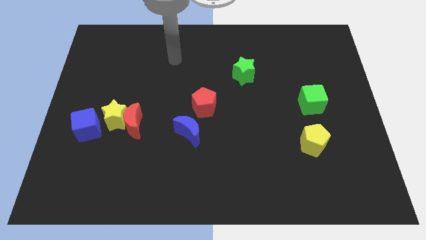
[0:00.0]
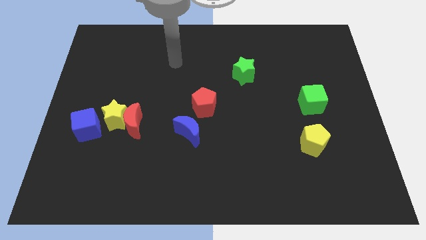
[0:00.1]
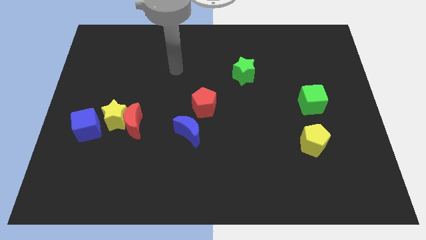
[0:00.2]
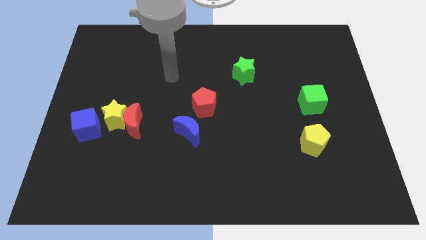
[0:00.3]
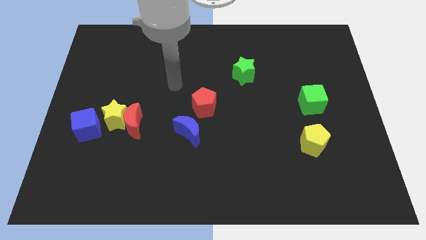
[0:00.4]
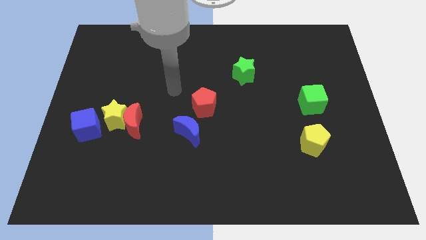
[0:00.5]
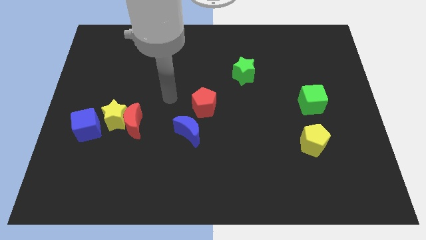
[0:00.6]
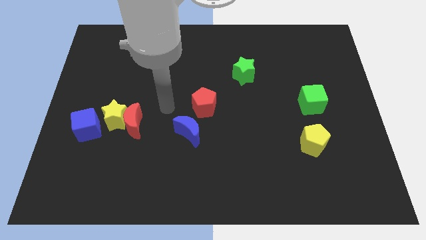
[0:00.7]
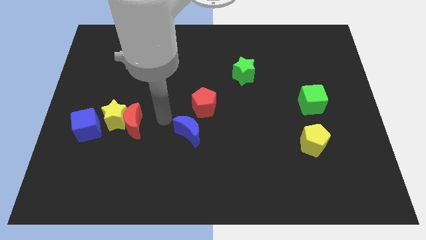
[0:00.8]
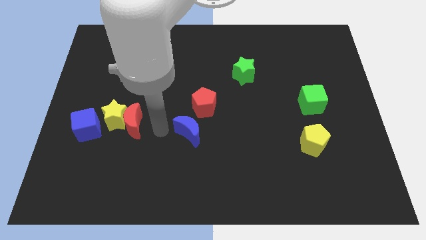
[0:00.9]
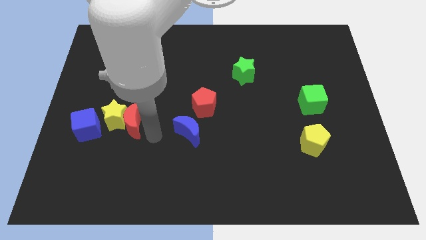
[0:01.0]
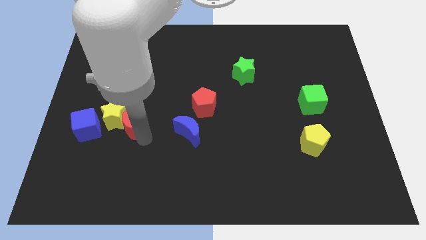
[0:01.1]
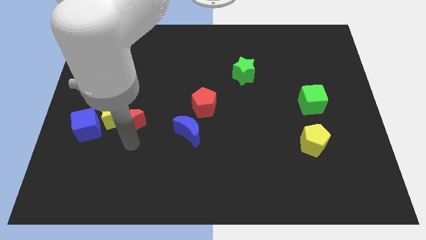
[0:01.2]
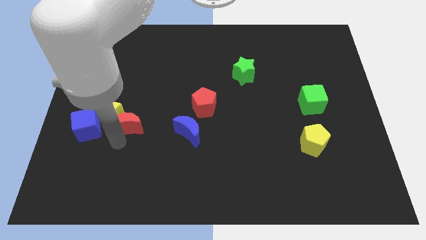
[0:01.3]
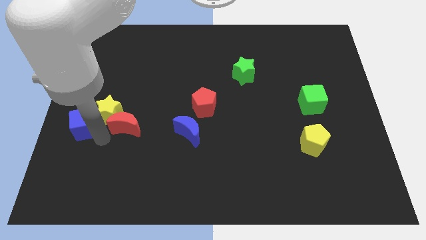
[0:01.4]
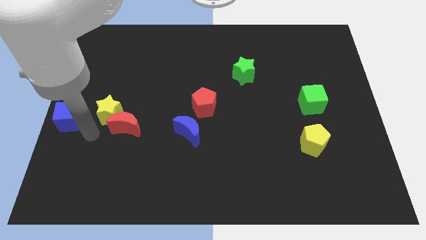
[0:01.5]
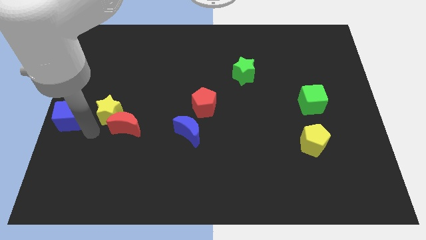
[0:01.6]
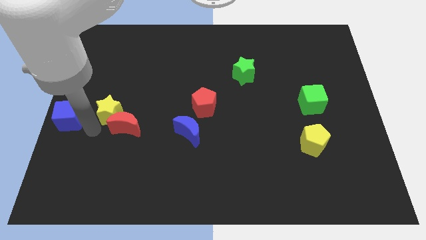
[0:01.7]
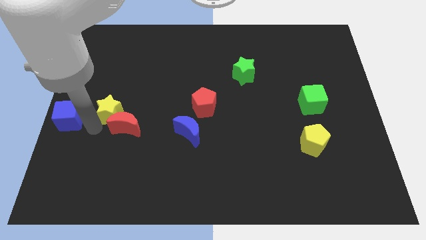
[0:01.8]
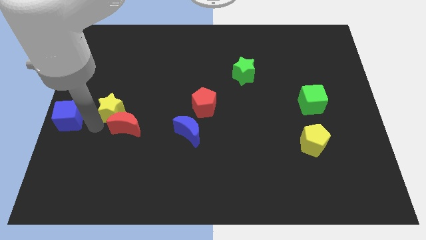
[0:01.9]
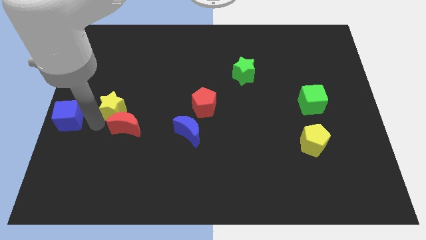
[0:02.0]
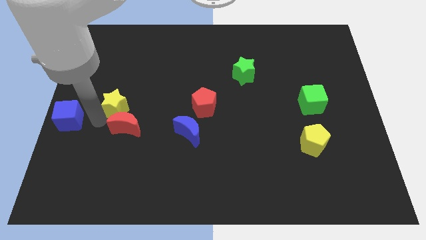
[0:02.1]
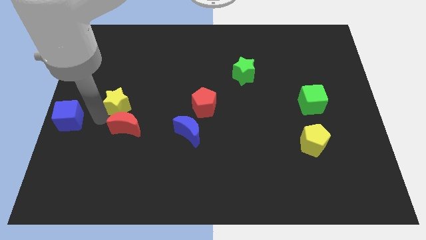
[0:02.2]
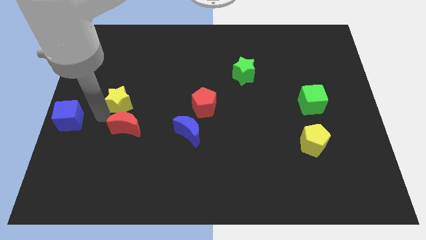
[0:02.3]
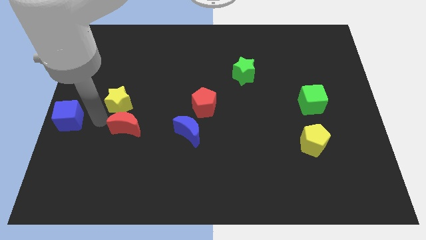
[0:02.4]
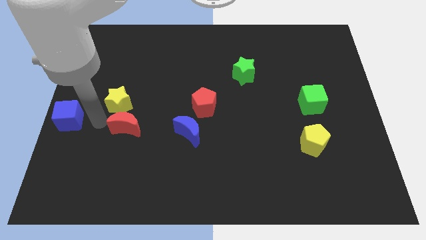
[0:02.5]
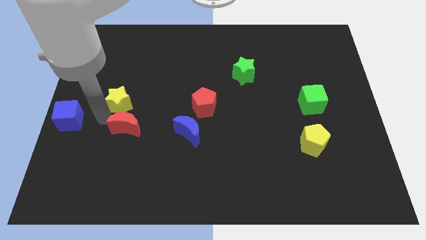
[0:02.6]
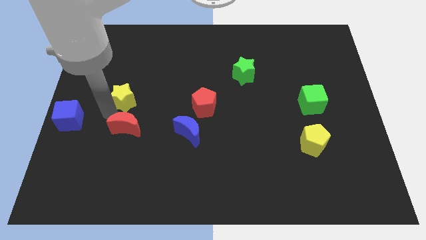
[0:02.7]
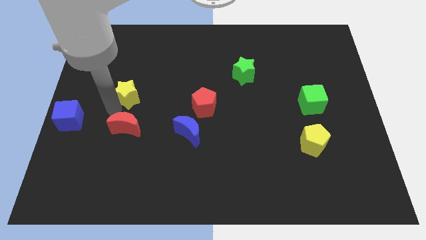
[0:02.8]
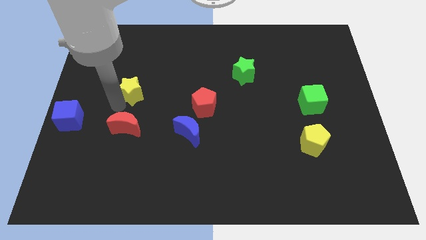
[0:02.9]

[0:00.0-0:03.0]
move the yellow star away from the red moon and blue cube

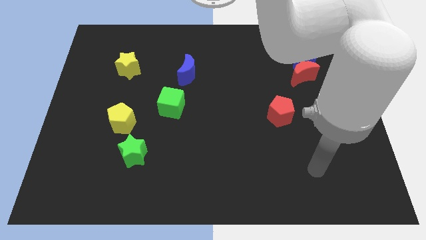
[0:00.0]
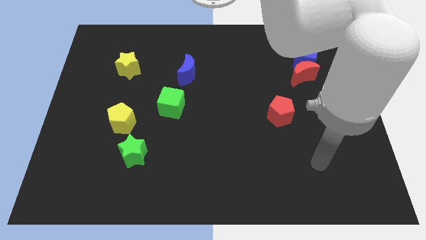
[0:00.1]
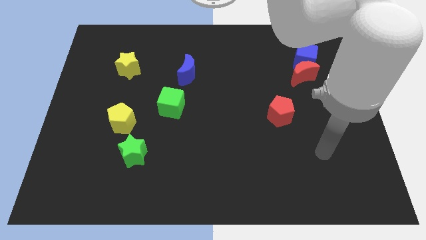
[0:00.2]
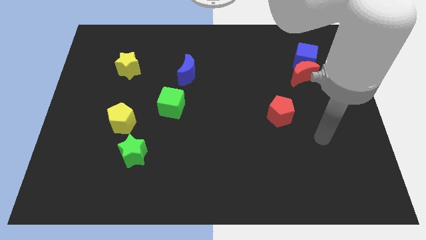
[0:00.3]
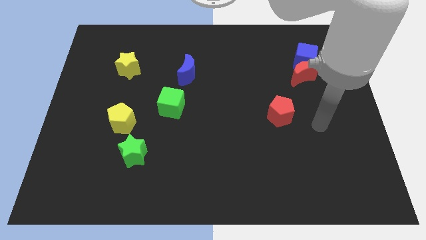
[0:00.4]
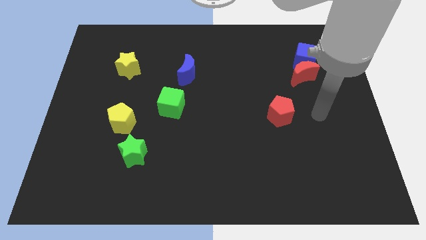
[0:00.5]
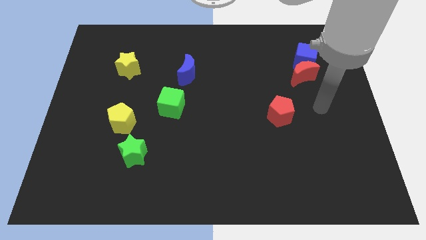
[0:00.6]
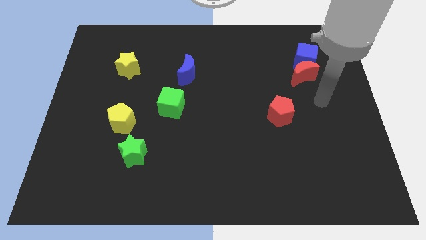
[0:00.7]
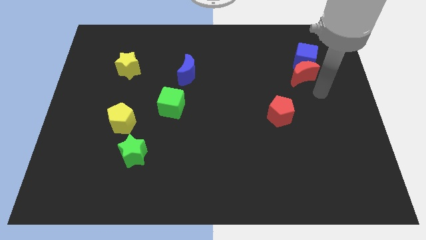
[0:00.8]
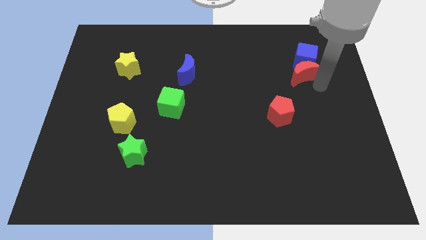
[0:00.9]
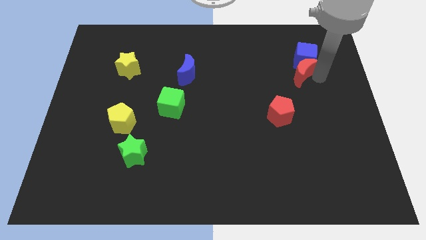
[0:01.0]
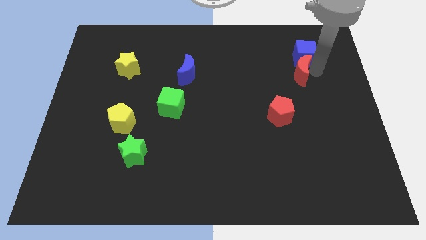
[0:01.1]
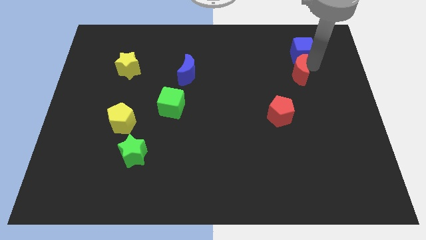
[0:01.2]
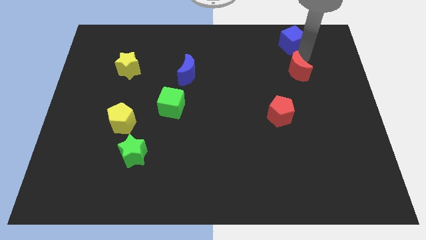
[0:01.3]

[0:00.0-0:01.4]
separate the red moon from the blue cube

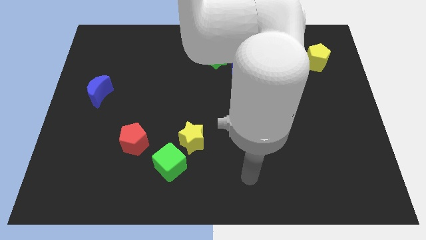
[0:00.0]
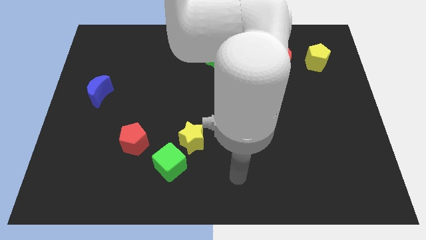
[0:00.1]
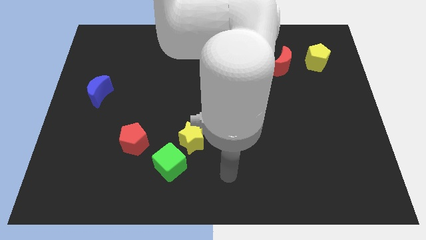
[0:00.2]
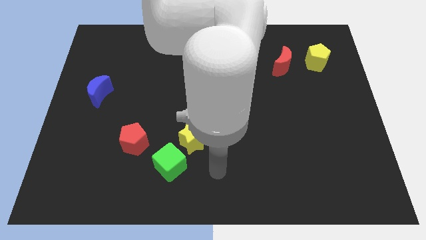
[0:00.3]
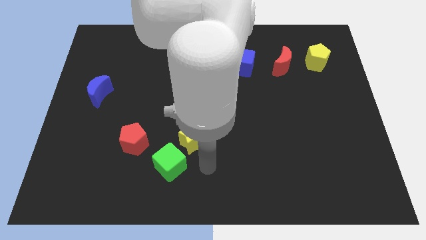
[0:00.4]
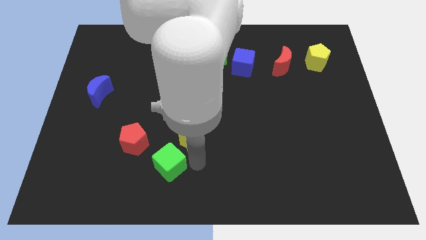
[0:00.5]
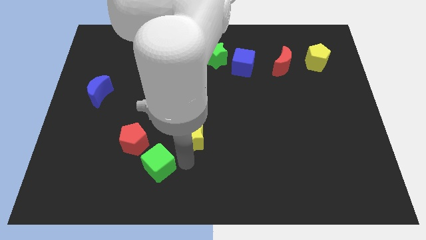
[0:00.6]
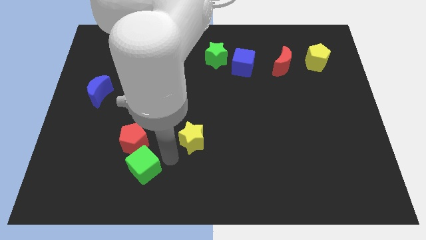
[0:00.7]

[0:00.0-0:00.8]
move the yellow star away from the green cube

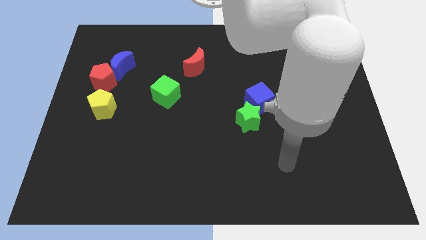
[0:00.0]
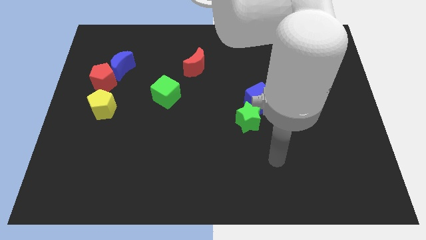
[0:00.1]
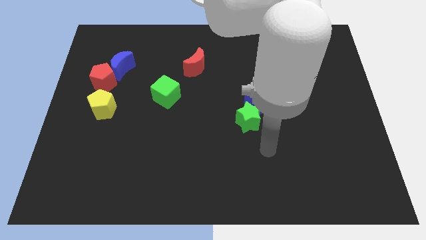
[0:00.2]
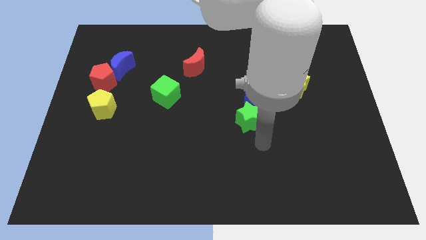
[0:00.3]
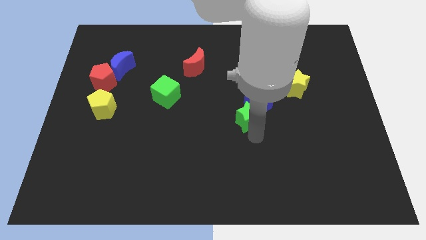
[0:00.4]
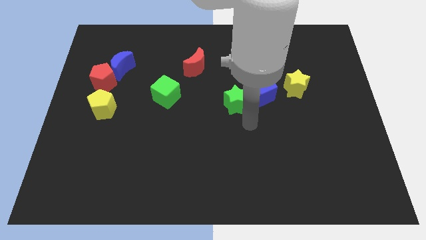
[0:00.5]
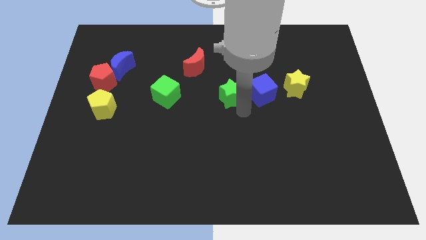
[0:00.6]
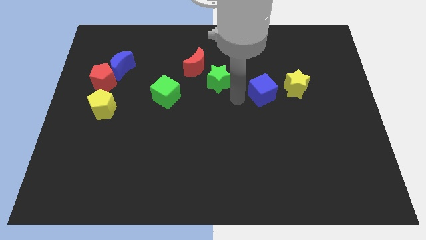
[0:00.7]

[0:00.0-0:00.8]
pull the blue cube apart from the green star

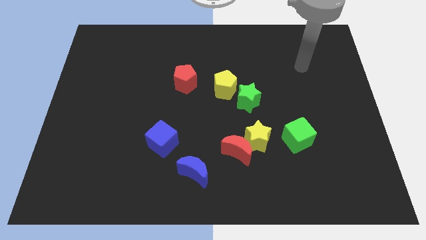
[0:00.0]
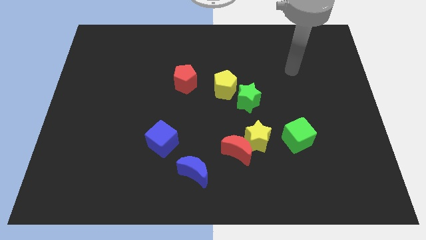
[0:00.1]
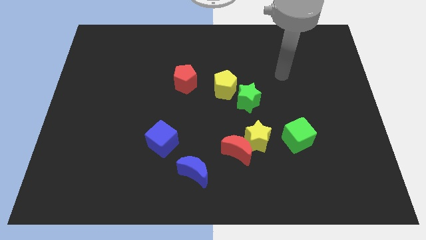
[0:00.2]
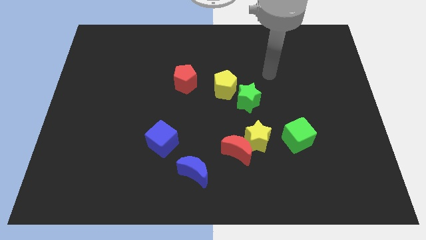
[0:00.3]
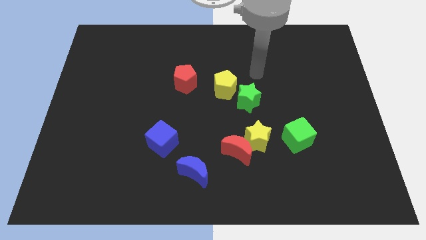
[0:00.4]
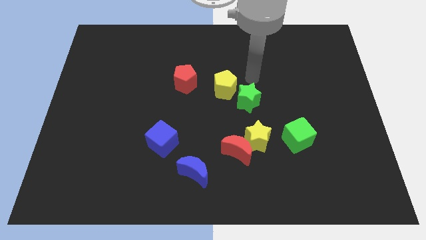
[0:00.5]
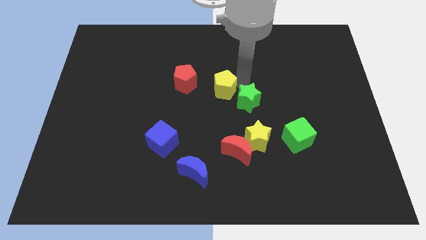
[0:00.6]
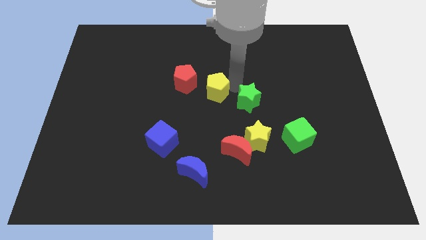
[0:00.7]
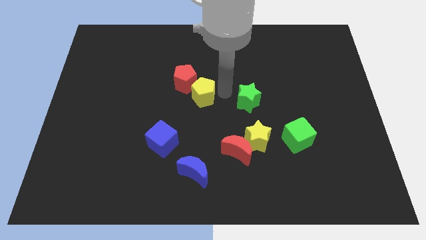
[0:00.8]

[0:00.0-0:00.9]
pull the green star apart from the yellow pentagon

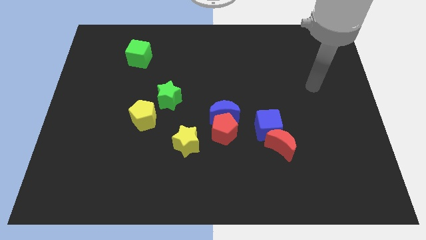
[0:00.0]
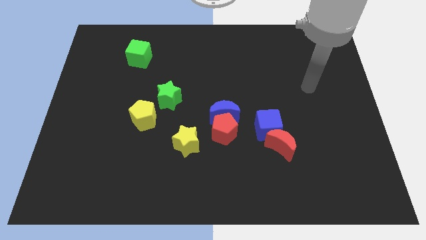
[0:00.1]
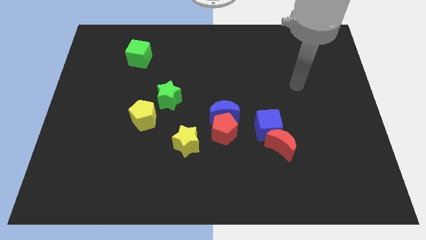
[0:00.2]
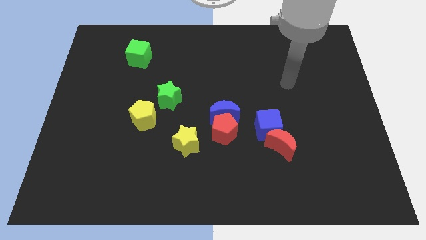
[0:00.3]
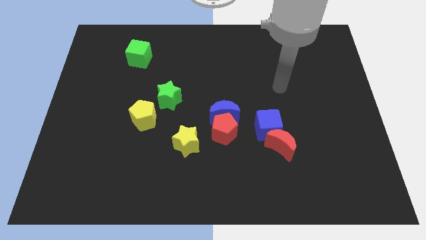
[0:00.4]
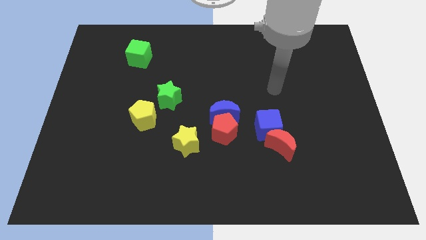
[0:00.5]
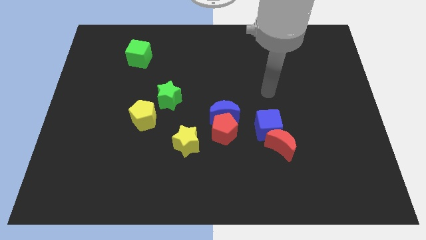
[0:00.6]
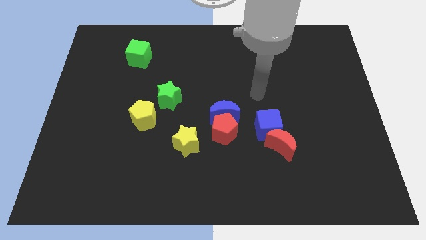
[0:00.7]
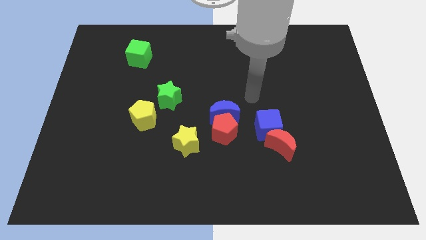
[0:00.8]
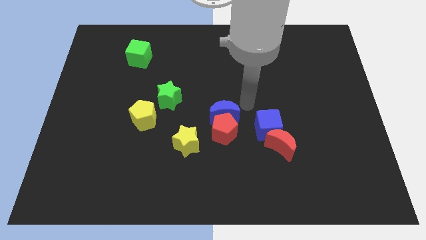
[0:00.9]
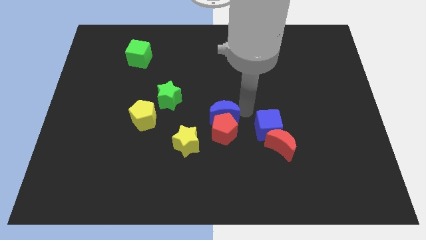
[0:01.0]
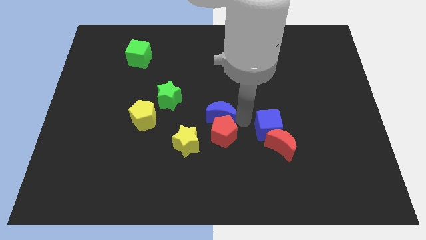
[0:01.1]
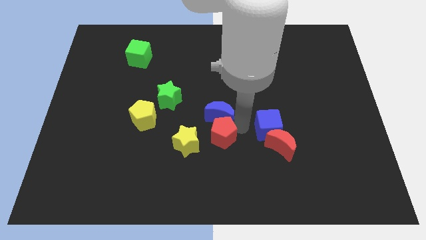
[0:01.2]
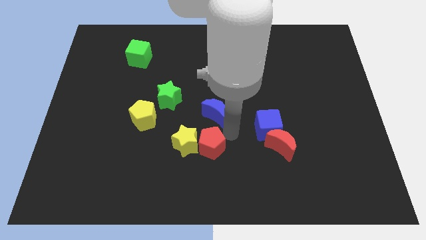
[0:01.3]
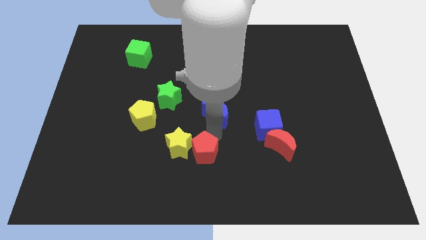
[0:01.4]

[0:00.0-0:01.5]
separate the blue moon from the red pentagon

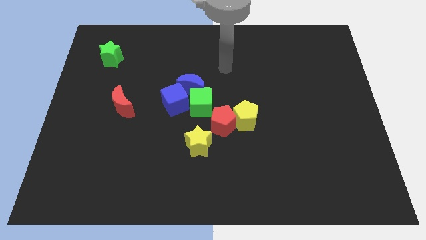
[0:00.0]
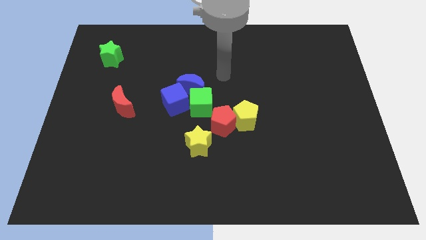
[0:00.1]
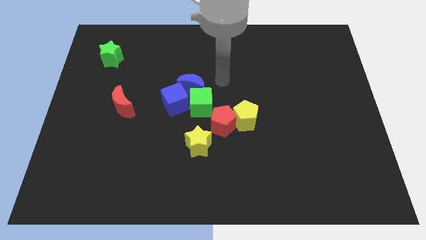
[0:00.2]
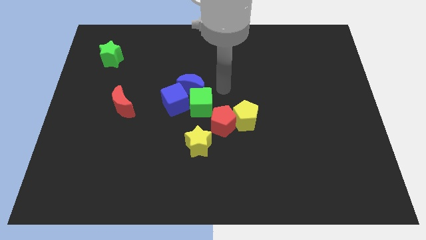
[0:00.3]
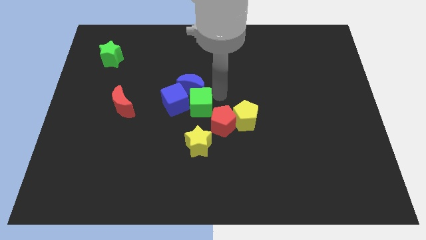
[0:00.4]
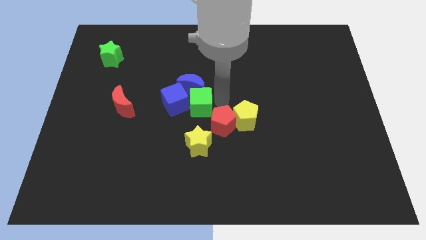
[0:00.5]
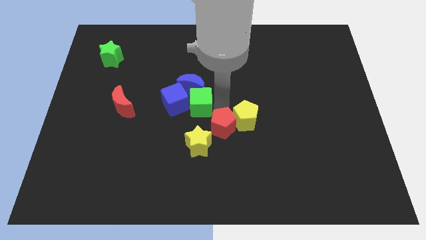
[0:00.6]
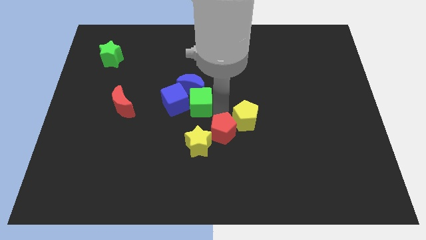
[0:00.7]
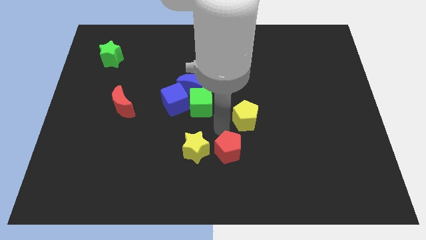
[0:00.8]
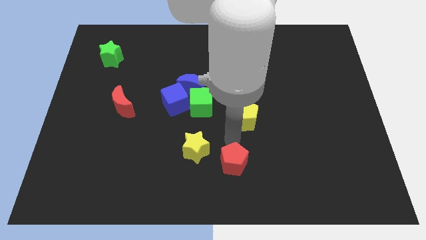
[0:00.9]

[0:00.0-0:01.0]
separate the yellow pentagon from the red pentagon
